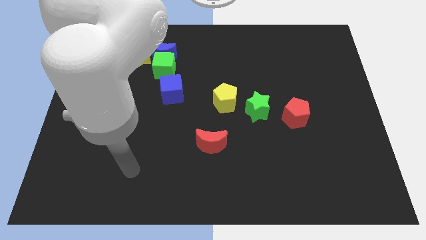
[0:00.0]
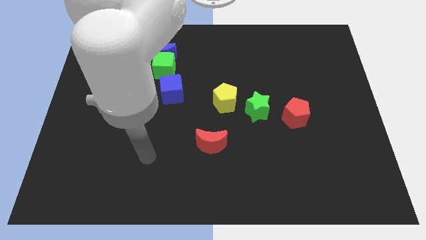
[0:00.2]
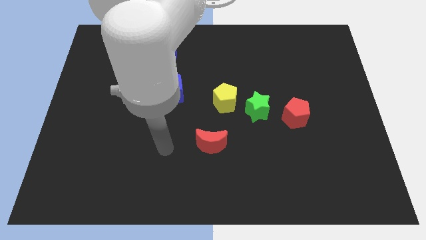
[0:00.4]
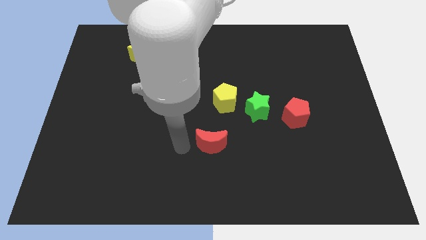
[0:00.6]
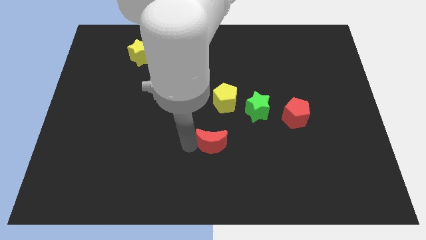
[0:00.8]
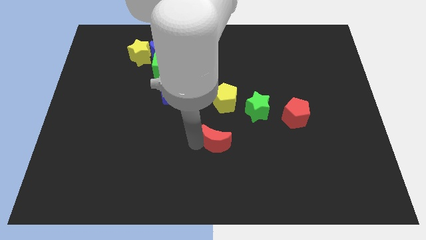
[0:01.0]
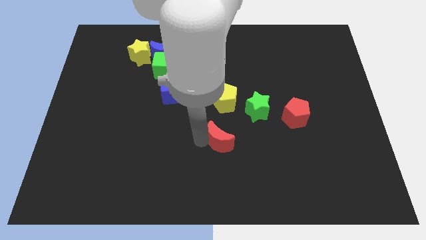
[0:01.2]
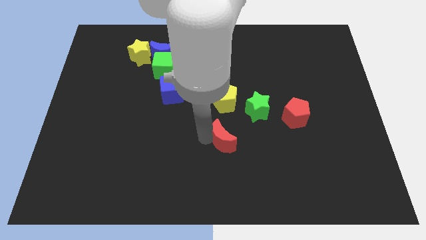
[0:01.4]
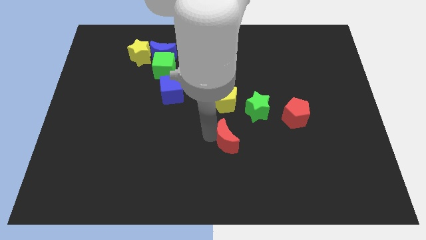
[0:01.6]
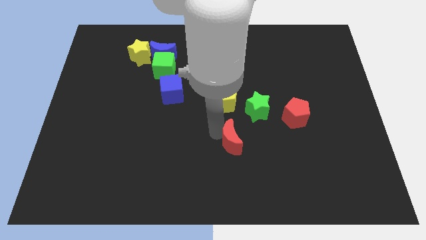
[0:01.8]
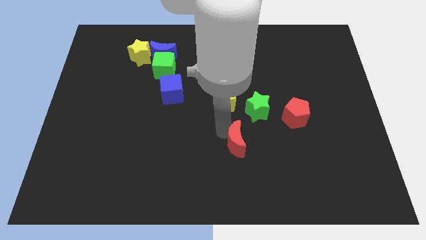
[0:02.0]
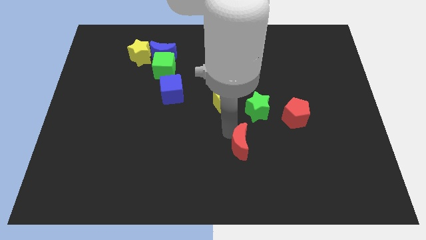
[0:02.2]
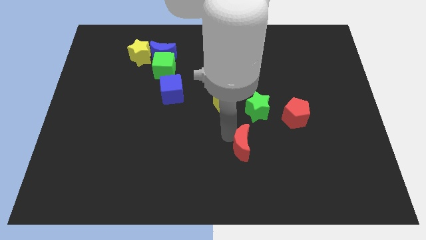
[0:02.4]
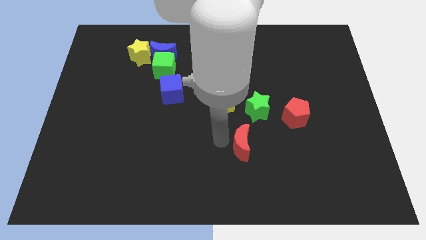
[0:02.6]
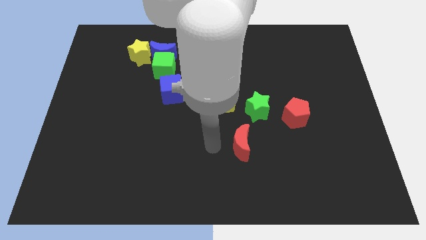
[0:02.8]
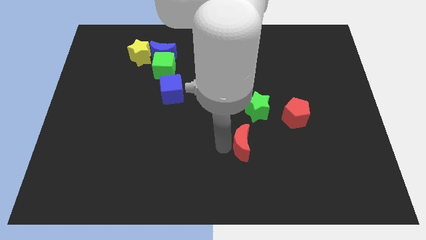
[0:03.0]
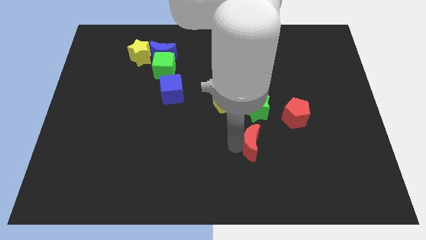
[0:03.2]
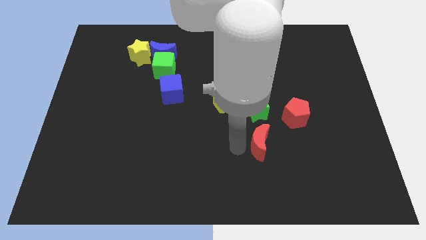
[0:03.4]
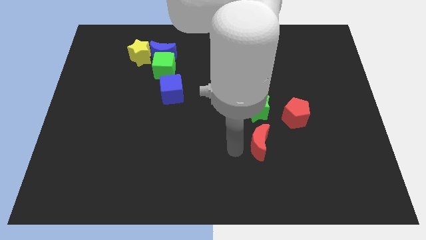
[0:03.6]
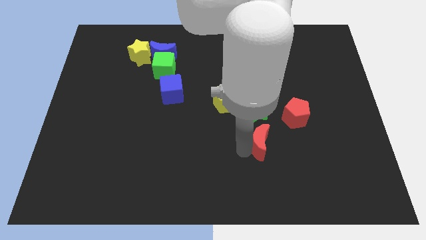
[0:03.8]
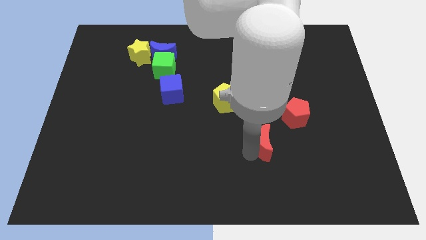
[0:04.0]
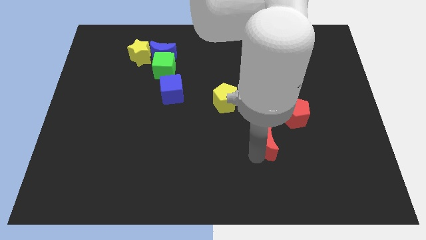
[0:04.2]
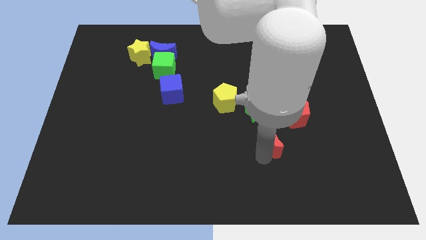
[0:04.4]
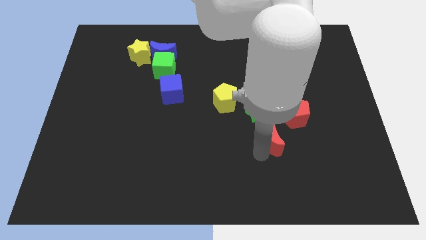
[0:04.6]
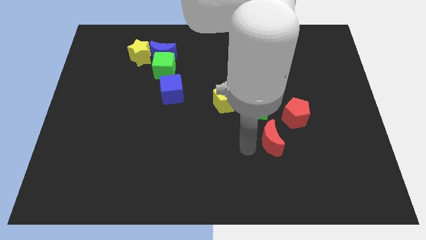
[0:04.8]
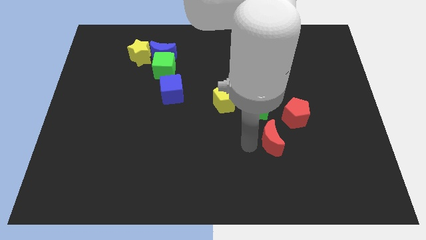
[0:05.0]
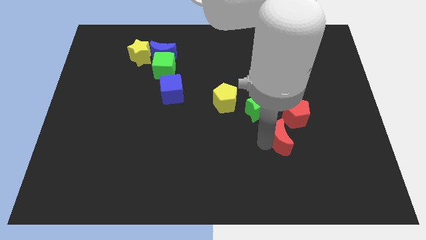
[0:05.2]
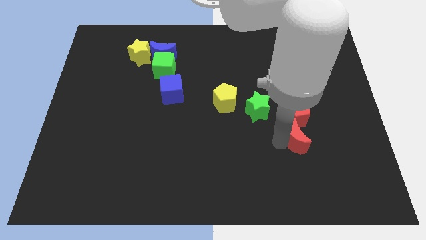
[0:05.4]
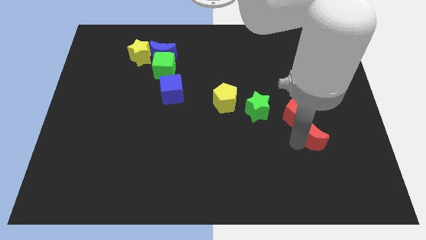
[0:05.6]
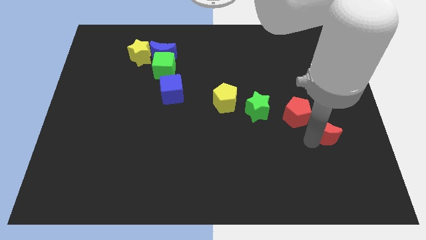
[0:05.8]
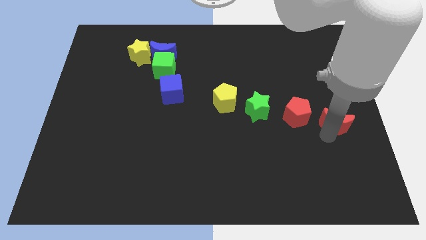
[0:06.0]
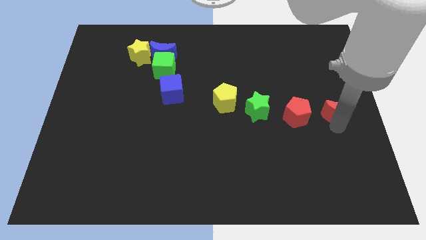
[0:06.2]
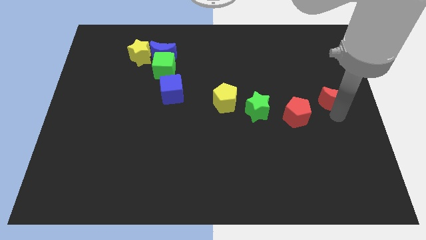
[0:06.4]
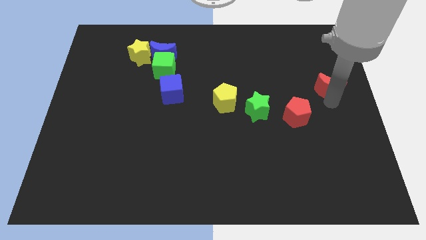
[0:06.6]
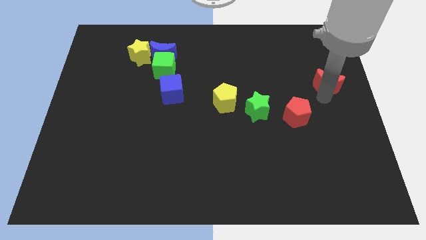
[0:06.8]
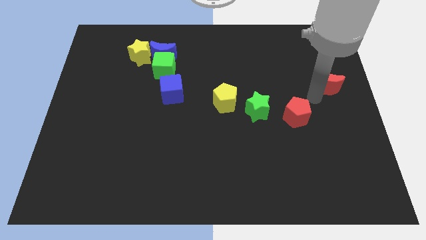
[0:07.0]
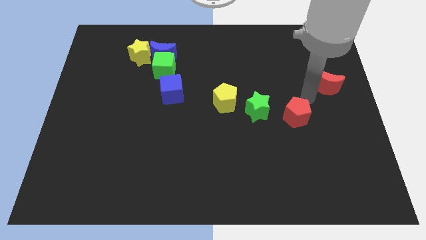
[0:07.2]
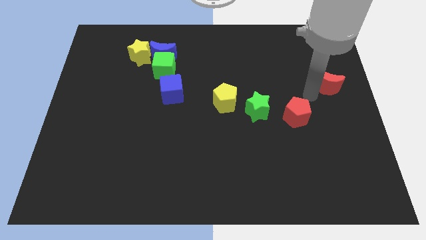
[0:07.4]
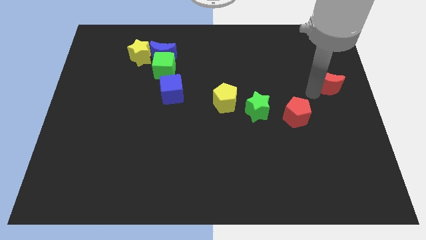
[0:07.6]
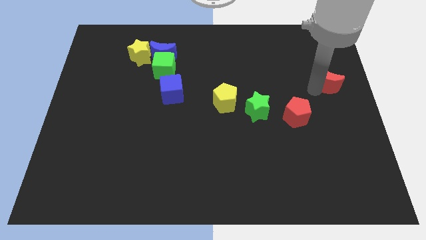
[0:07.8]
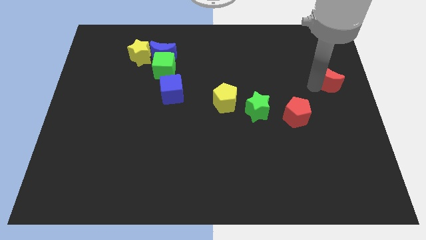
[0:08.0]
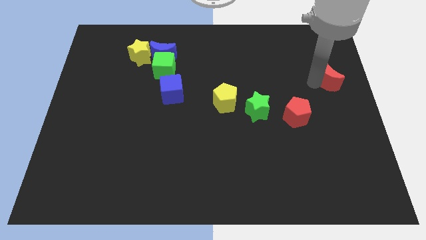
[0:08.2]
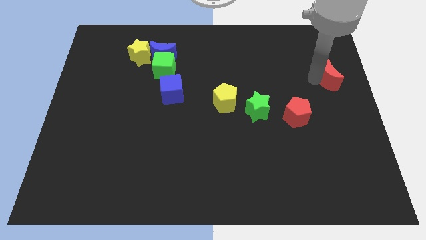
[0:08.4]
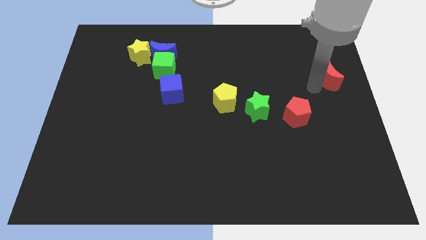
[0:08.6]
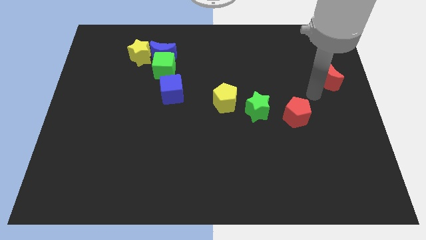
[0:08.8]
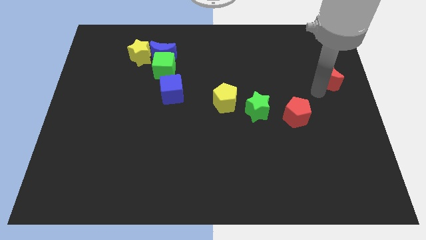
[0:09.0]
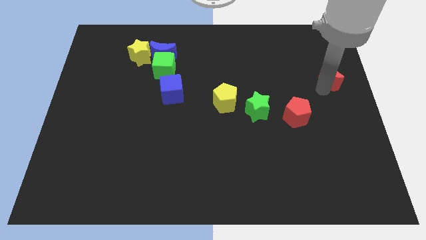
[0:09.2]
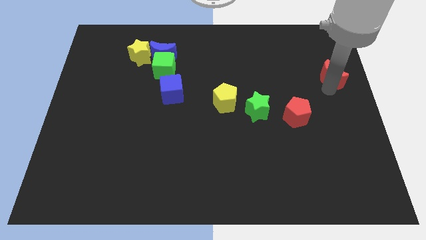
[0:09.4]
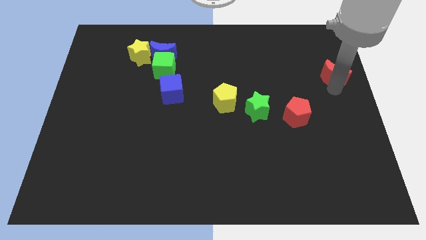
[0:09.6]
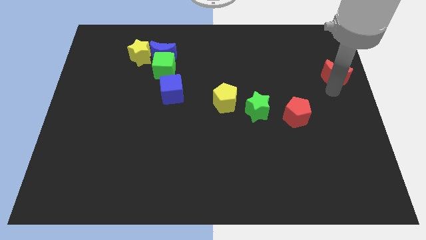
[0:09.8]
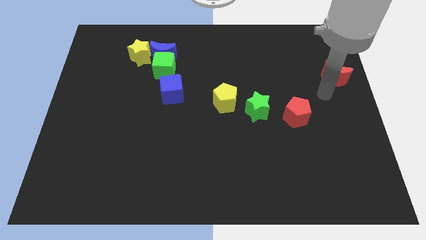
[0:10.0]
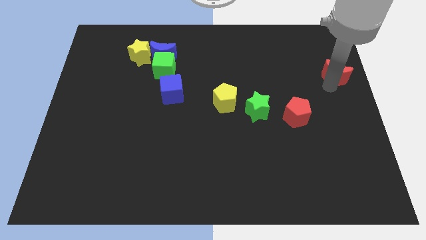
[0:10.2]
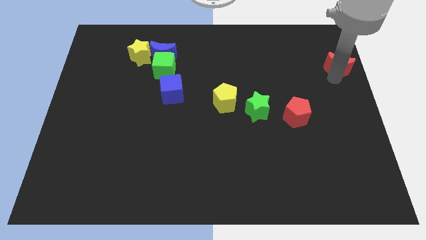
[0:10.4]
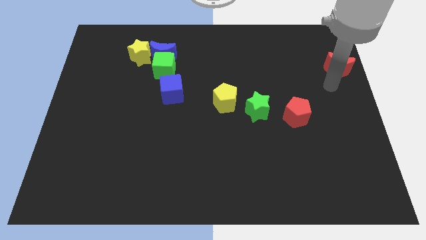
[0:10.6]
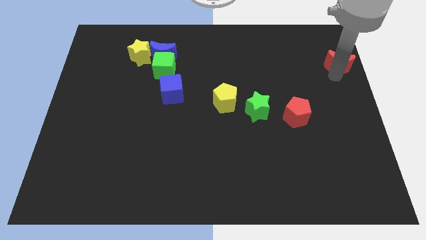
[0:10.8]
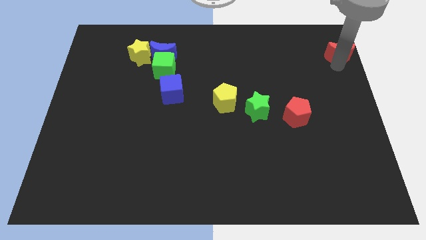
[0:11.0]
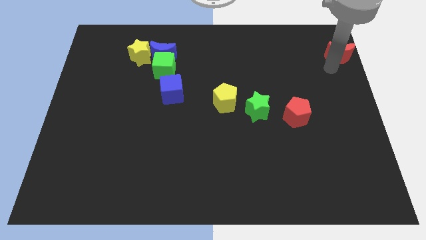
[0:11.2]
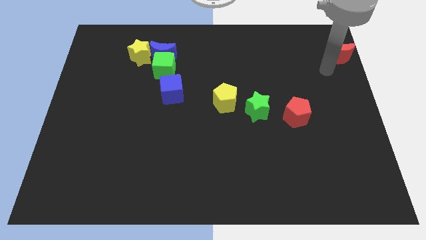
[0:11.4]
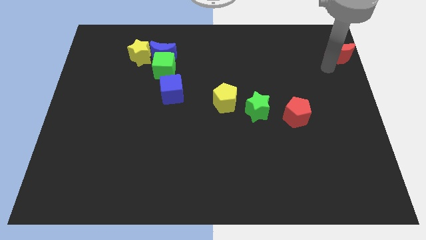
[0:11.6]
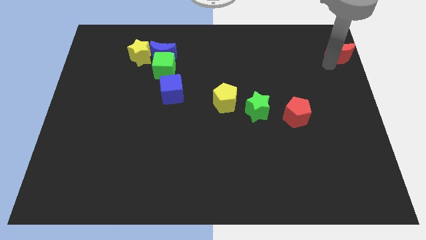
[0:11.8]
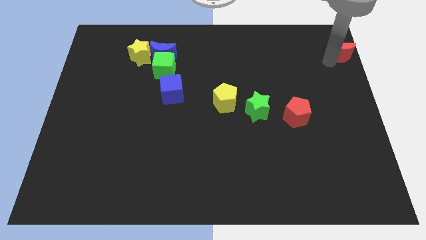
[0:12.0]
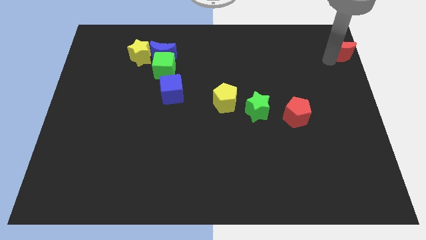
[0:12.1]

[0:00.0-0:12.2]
put the red moon to the top right corner

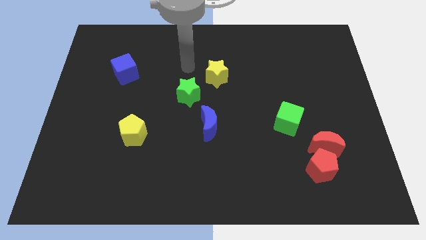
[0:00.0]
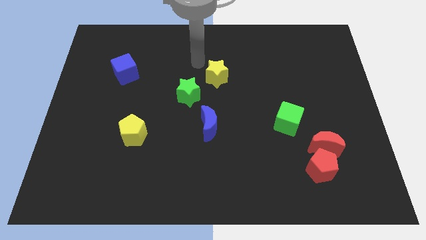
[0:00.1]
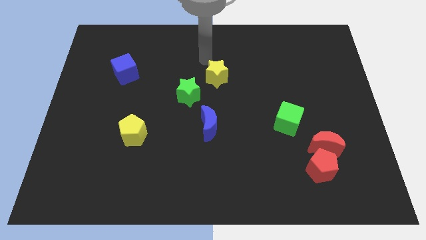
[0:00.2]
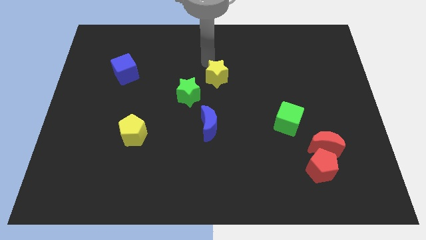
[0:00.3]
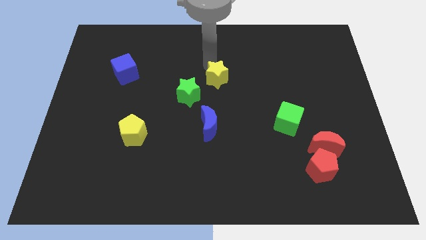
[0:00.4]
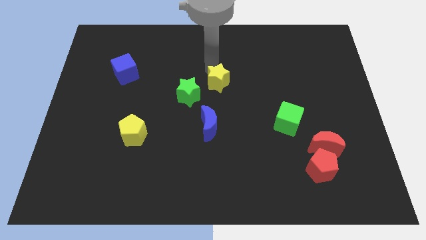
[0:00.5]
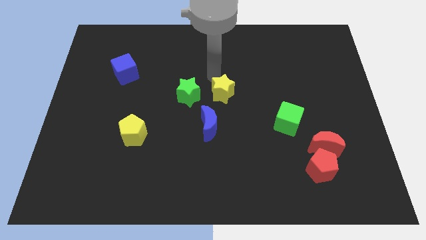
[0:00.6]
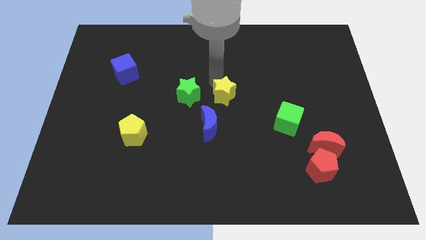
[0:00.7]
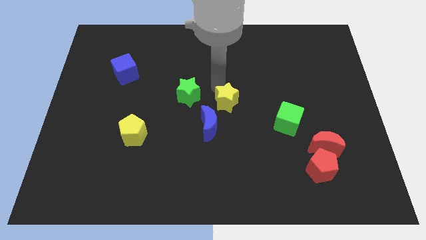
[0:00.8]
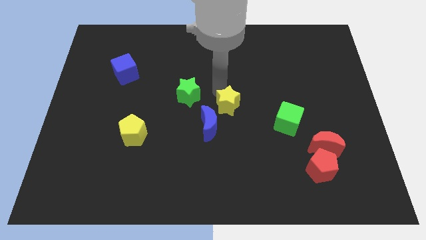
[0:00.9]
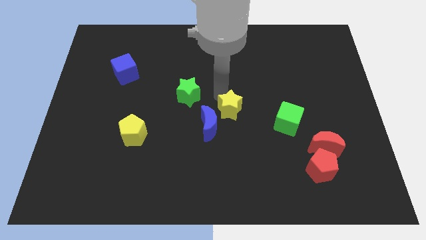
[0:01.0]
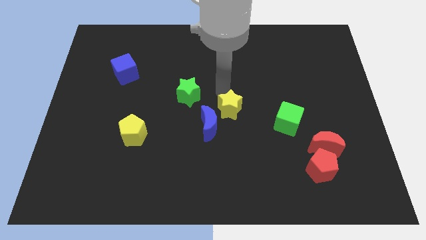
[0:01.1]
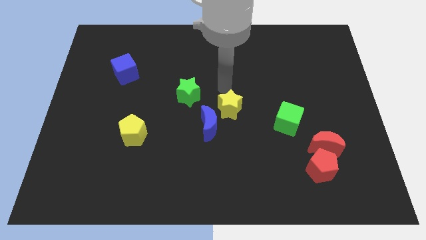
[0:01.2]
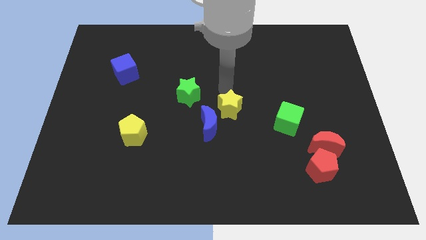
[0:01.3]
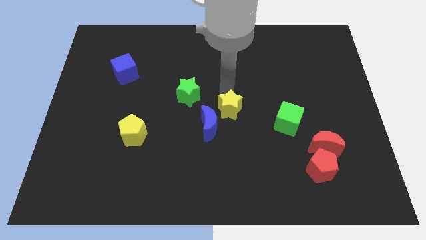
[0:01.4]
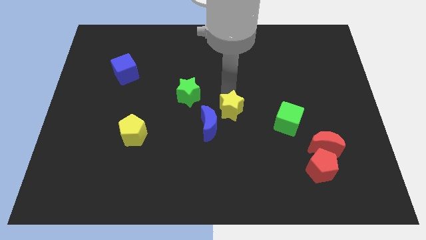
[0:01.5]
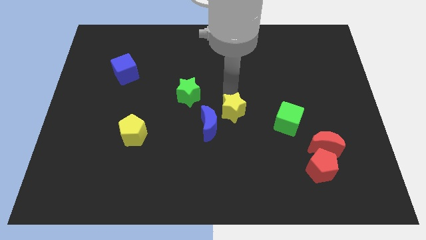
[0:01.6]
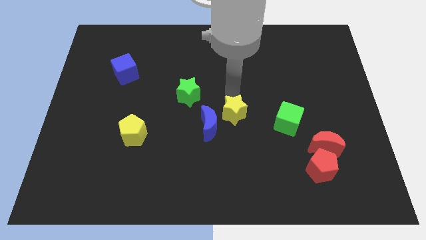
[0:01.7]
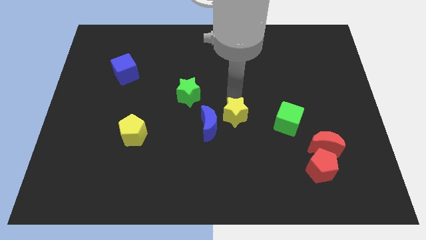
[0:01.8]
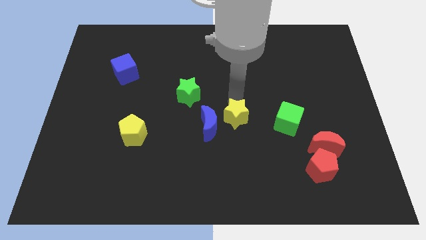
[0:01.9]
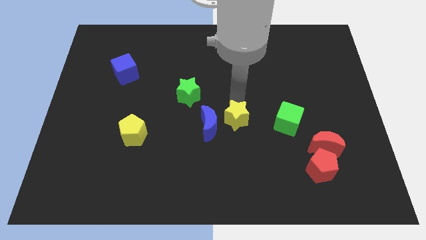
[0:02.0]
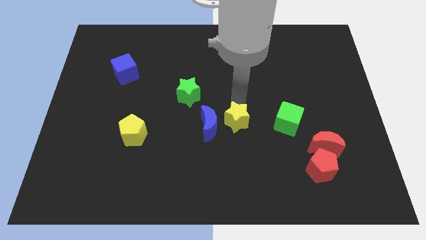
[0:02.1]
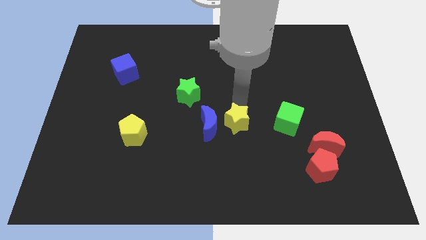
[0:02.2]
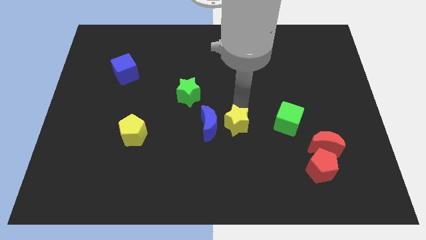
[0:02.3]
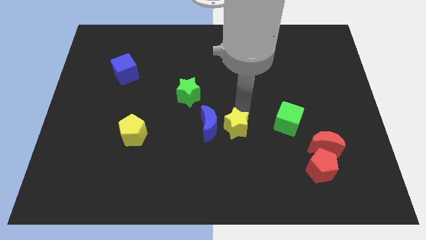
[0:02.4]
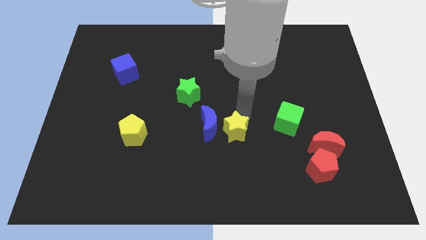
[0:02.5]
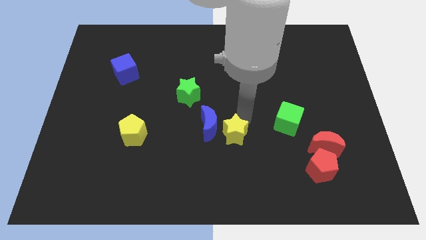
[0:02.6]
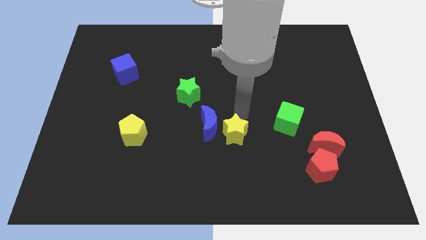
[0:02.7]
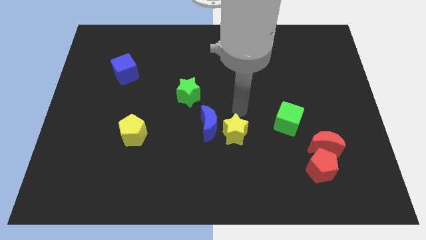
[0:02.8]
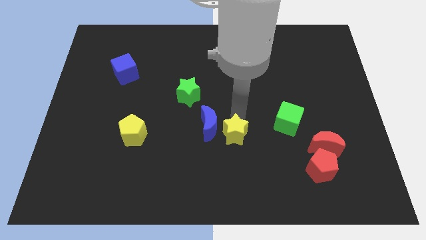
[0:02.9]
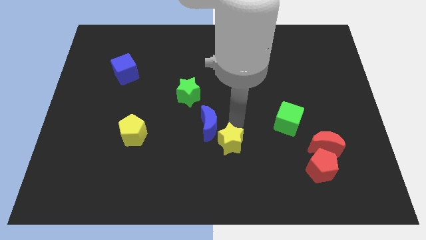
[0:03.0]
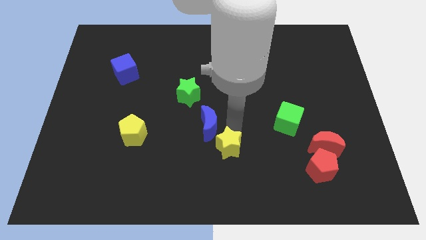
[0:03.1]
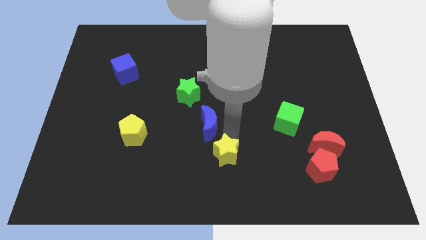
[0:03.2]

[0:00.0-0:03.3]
slide the yellow star to the bottom side
